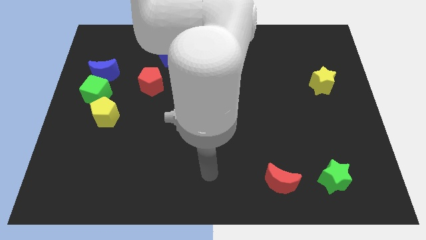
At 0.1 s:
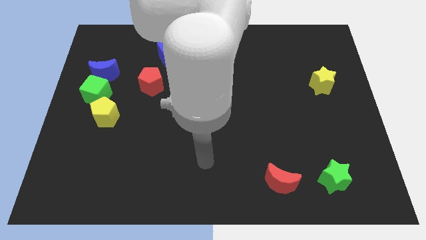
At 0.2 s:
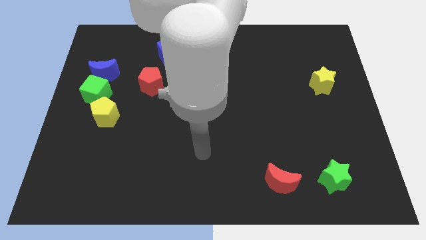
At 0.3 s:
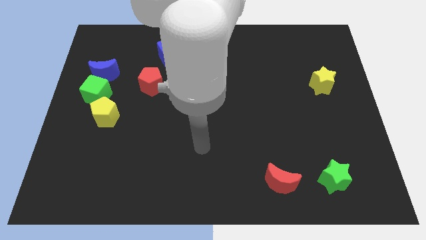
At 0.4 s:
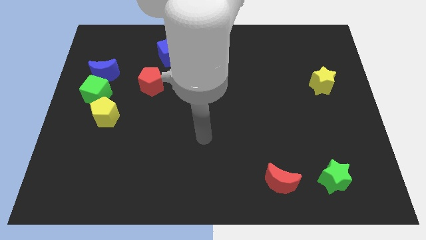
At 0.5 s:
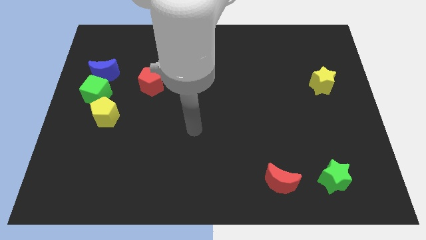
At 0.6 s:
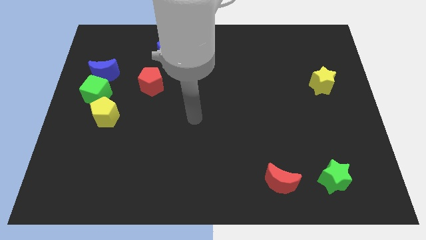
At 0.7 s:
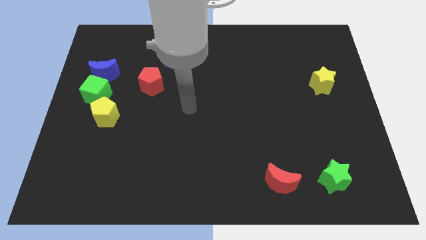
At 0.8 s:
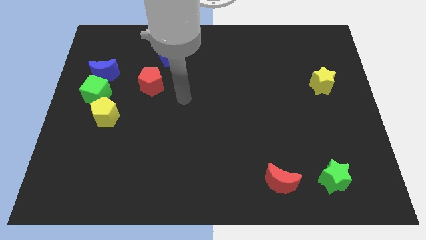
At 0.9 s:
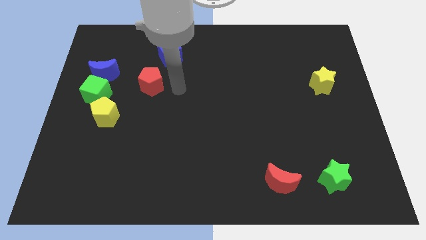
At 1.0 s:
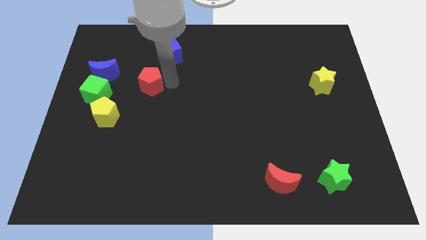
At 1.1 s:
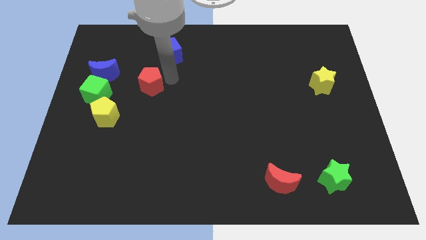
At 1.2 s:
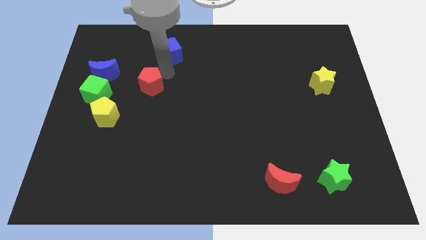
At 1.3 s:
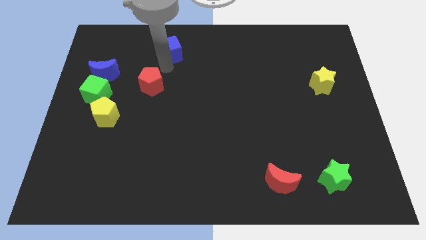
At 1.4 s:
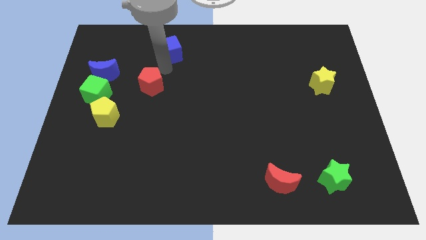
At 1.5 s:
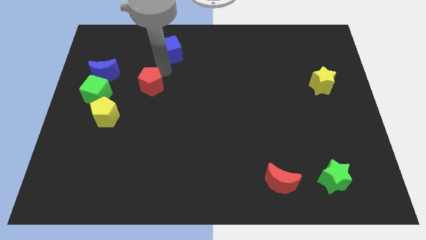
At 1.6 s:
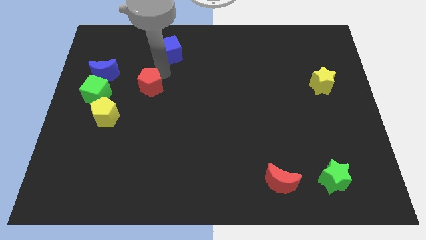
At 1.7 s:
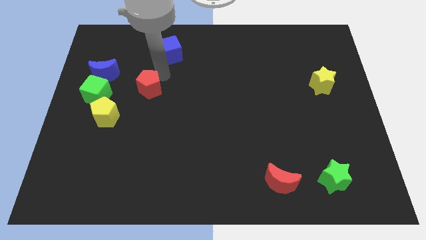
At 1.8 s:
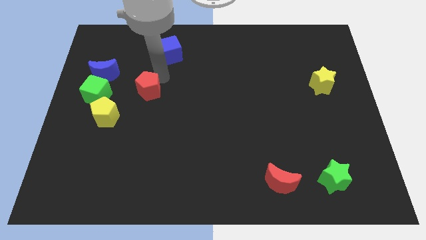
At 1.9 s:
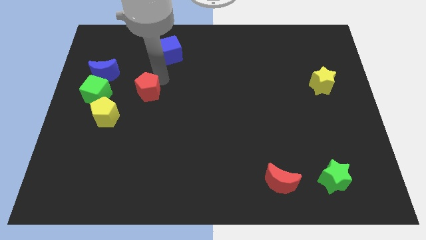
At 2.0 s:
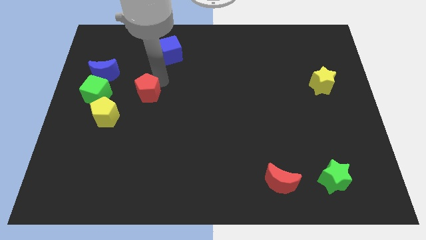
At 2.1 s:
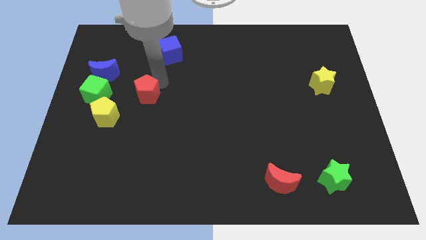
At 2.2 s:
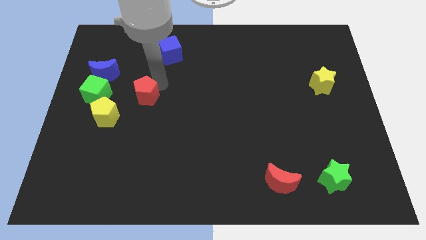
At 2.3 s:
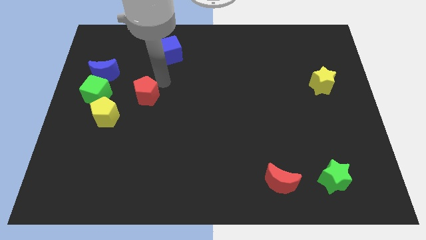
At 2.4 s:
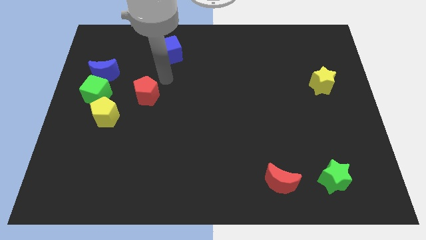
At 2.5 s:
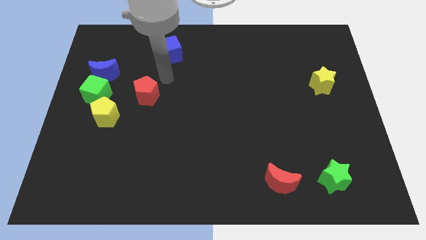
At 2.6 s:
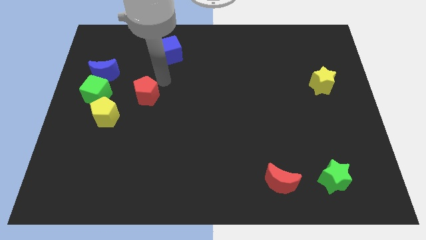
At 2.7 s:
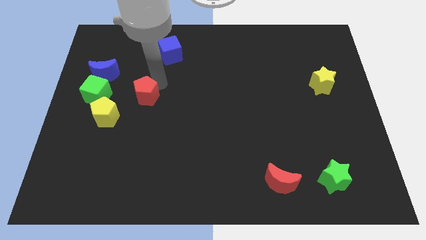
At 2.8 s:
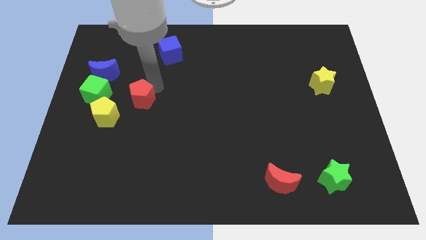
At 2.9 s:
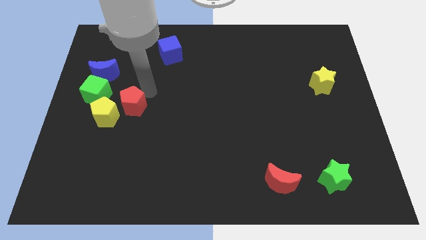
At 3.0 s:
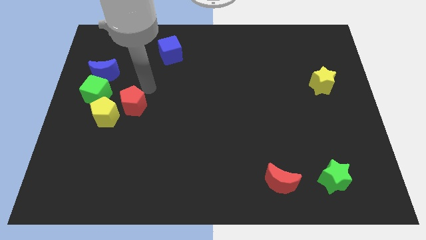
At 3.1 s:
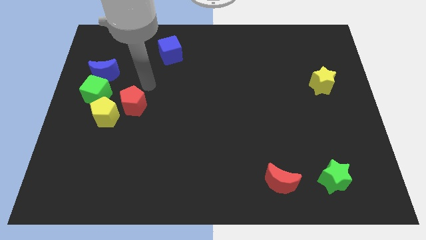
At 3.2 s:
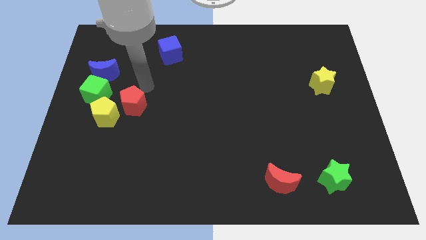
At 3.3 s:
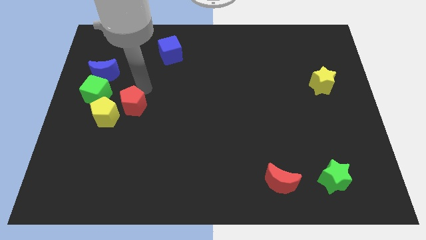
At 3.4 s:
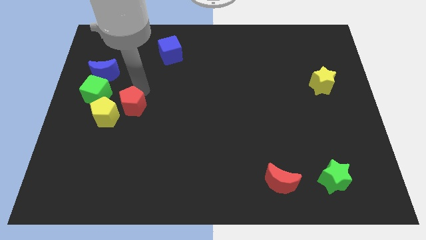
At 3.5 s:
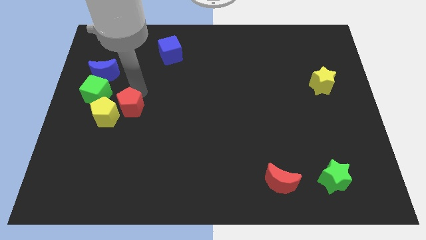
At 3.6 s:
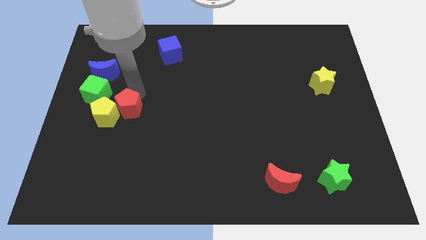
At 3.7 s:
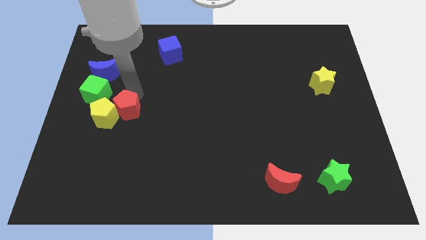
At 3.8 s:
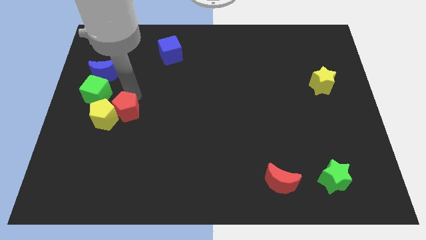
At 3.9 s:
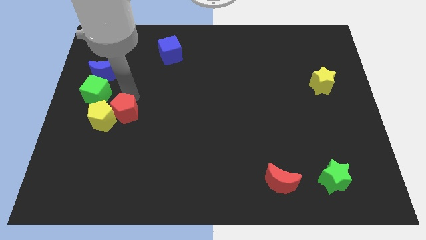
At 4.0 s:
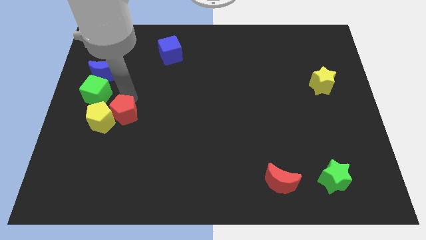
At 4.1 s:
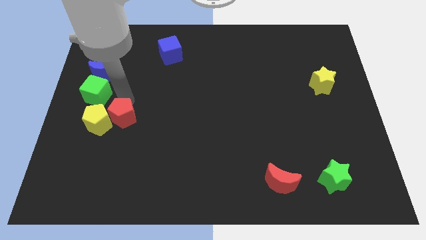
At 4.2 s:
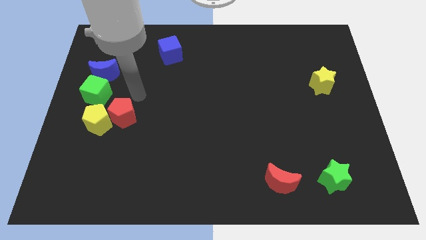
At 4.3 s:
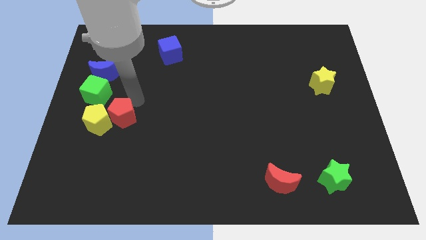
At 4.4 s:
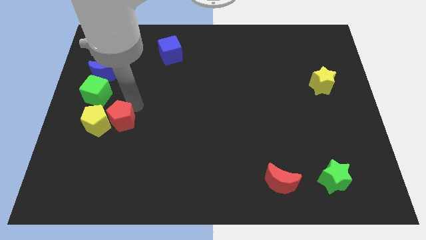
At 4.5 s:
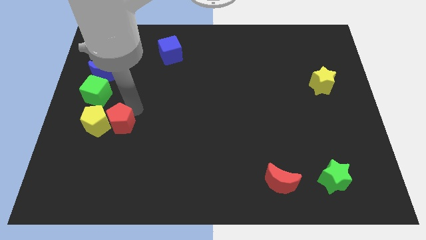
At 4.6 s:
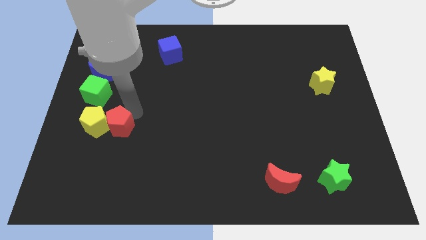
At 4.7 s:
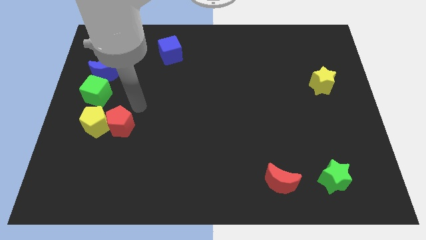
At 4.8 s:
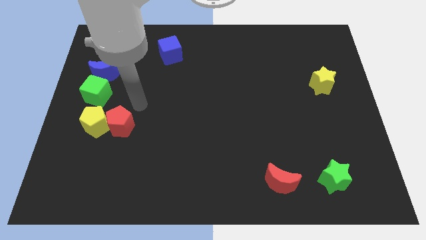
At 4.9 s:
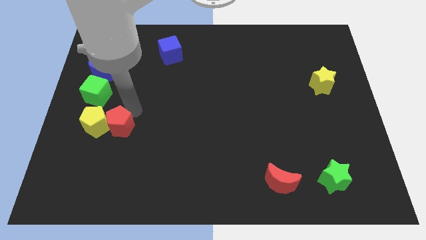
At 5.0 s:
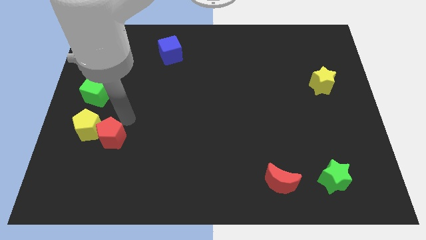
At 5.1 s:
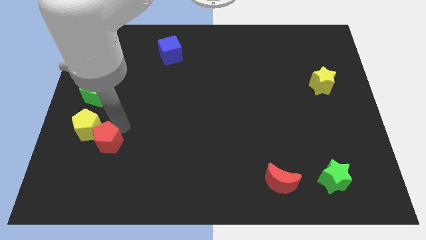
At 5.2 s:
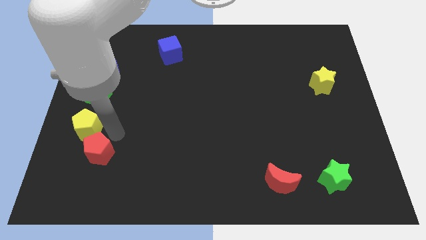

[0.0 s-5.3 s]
push the red pentagon below the yellow pentagon

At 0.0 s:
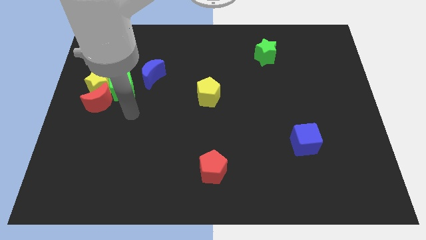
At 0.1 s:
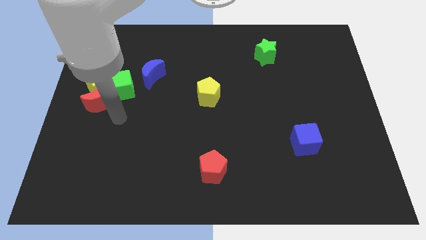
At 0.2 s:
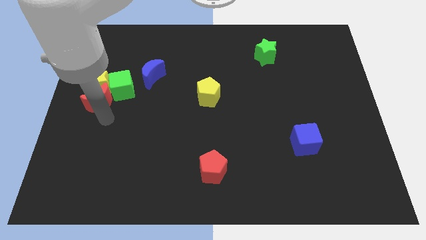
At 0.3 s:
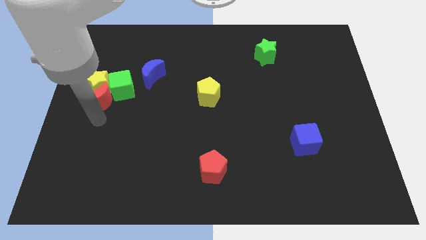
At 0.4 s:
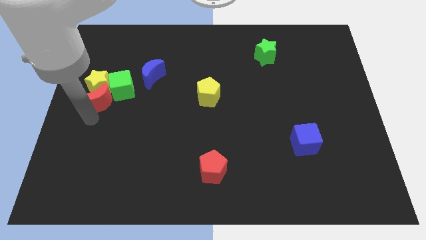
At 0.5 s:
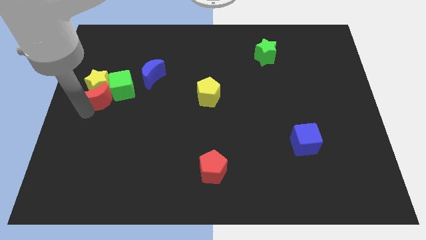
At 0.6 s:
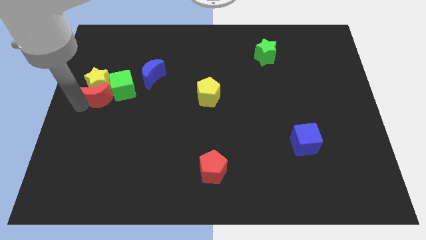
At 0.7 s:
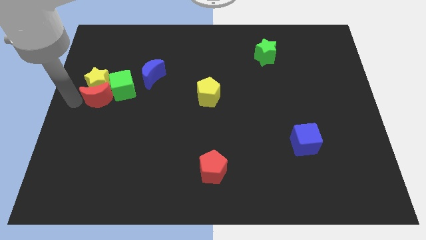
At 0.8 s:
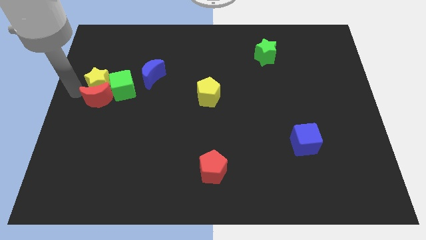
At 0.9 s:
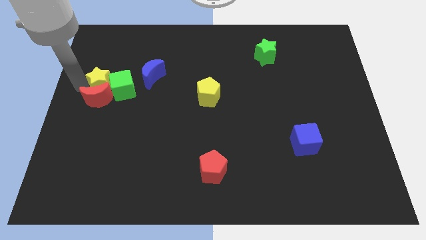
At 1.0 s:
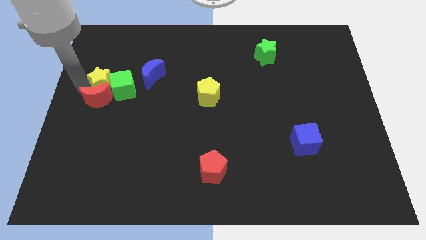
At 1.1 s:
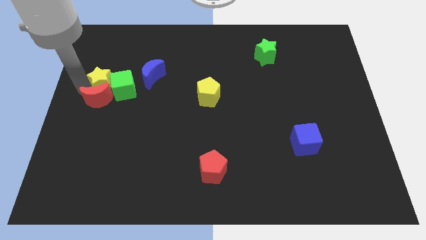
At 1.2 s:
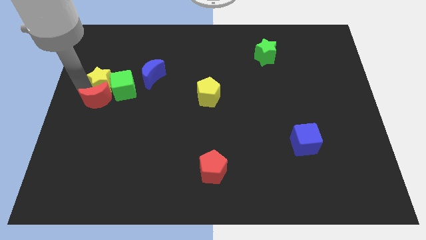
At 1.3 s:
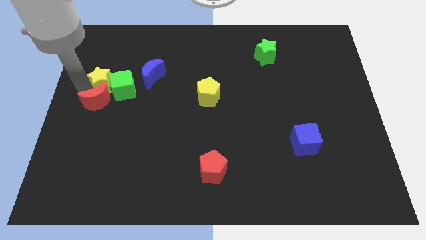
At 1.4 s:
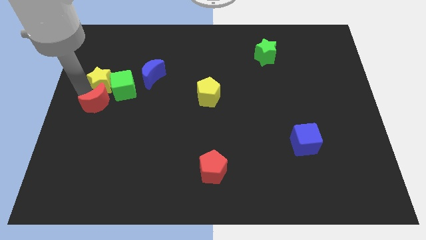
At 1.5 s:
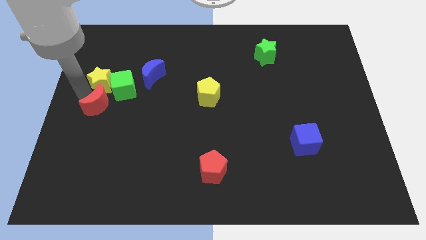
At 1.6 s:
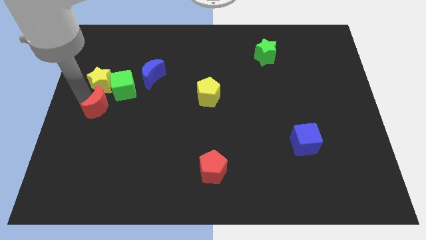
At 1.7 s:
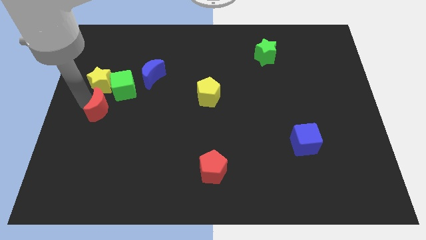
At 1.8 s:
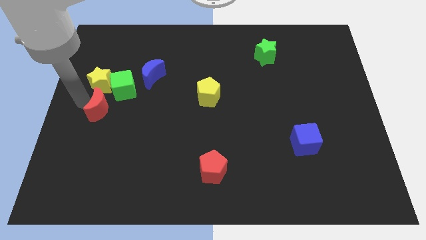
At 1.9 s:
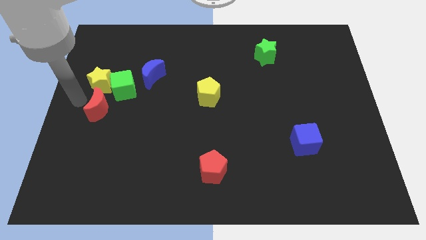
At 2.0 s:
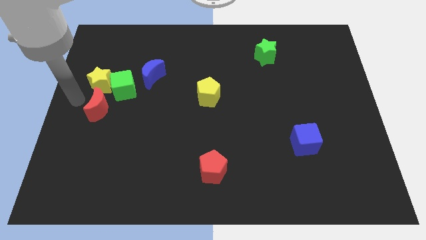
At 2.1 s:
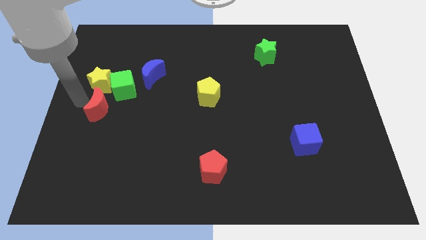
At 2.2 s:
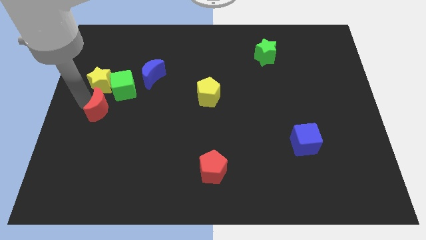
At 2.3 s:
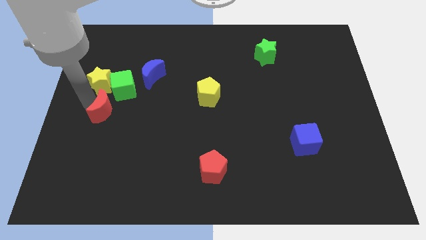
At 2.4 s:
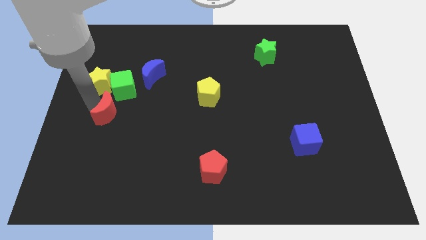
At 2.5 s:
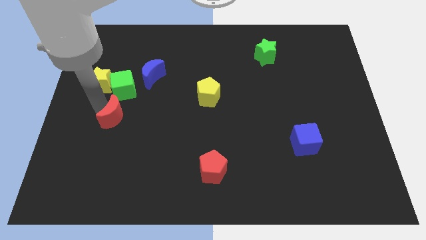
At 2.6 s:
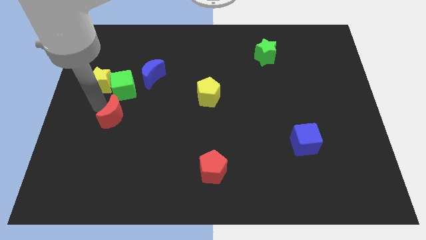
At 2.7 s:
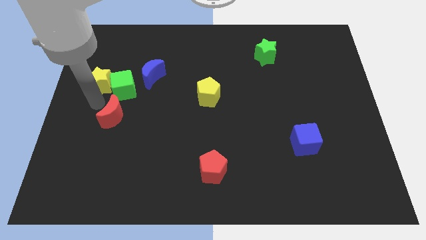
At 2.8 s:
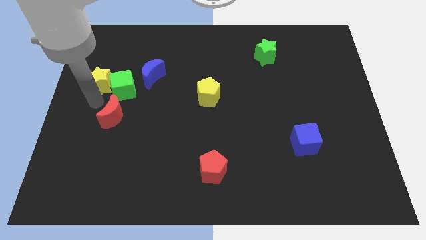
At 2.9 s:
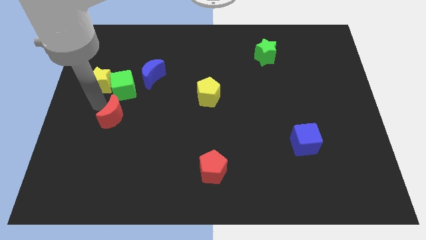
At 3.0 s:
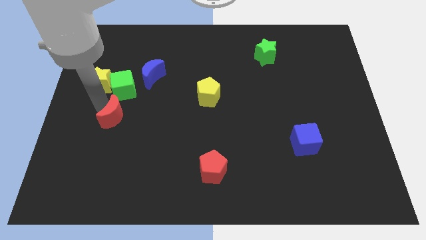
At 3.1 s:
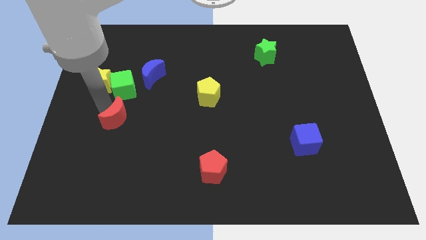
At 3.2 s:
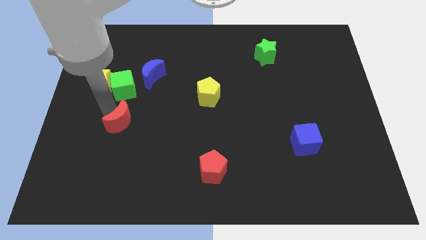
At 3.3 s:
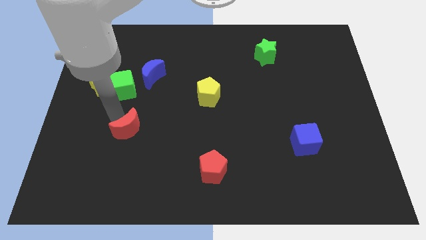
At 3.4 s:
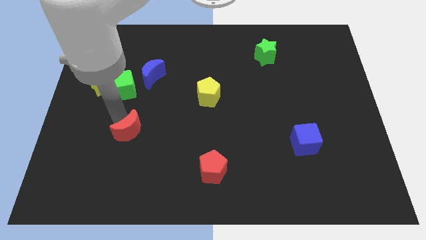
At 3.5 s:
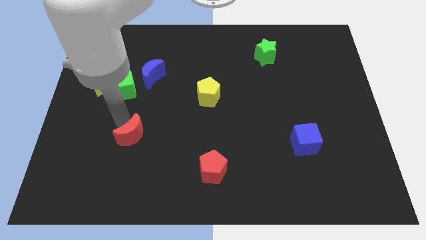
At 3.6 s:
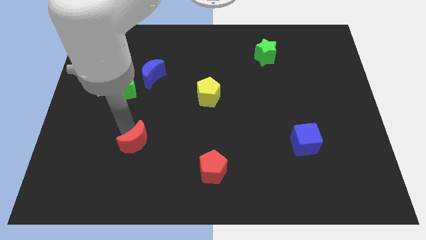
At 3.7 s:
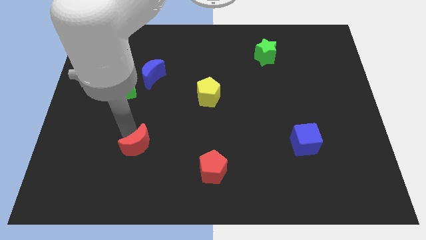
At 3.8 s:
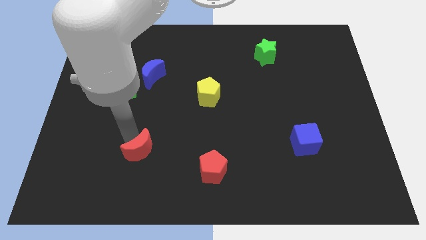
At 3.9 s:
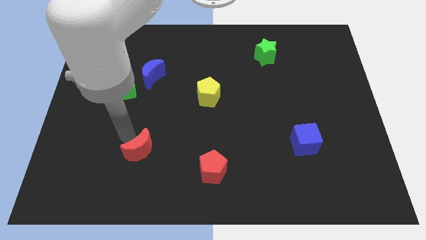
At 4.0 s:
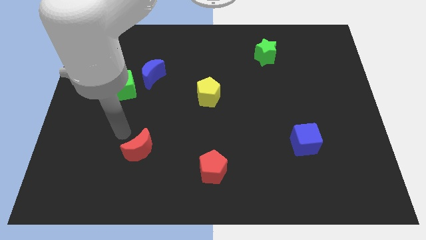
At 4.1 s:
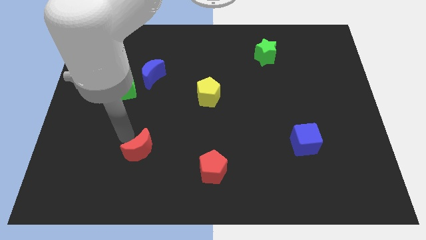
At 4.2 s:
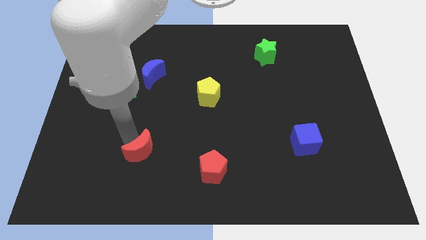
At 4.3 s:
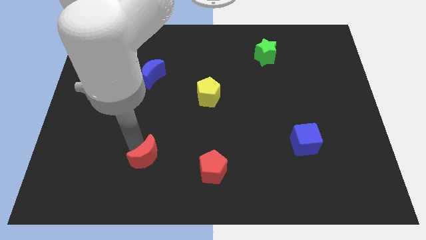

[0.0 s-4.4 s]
push the red moon left of the red pentagon
